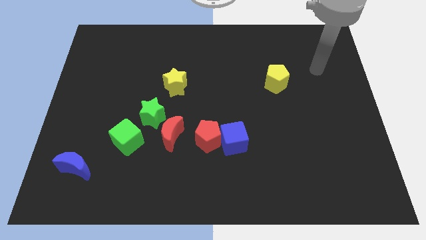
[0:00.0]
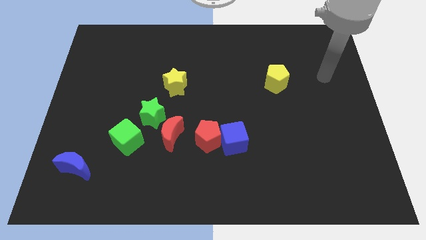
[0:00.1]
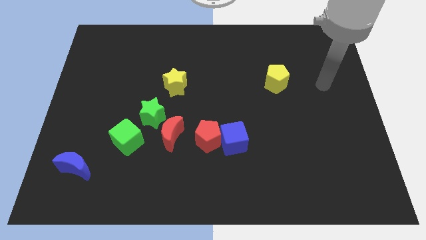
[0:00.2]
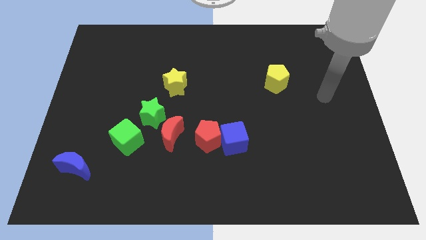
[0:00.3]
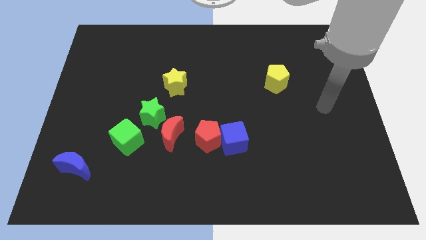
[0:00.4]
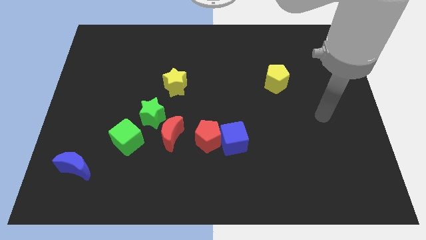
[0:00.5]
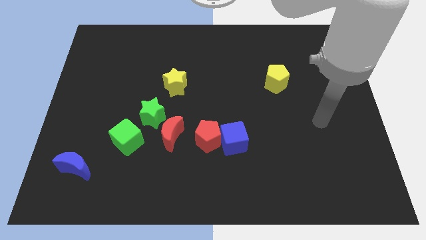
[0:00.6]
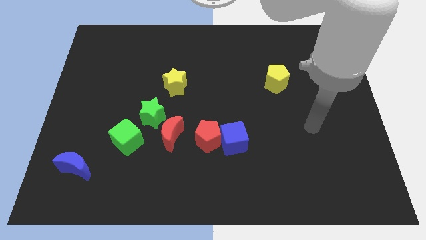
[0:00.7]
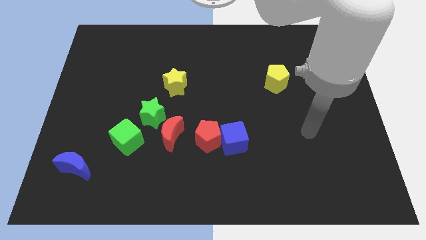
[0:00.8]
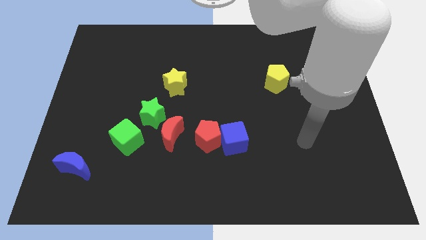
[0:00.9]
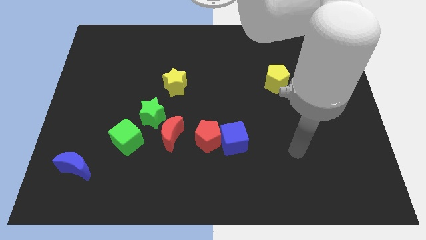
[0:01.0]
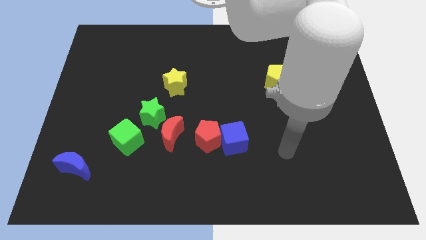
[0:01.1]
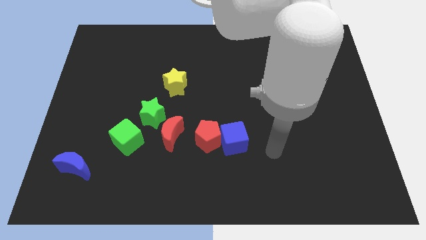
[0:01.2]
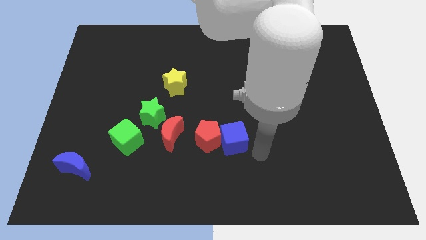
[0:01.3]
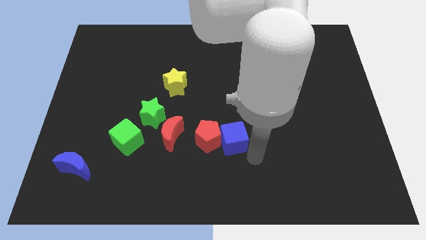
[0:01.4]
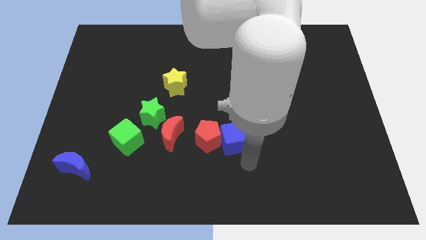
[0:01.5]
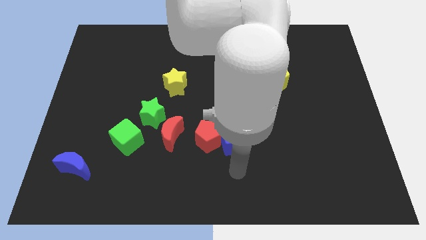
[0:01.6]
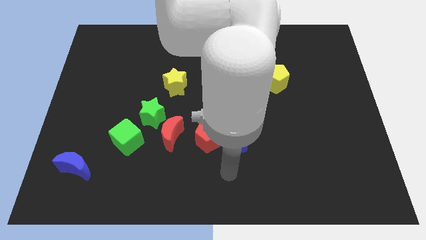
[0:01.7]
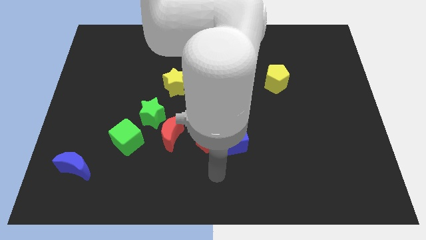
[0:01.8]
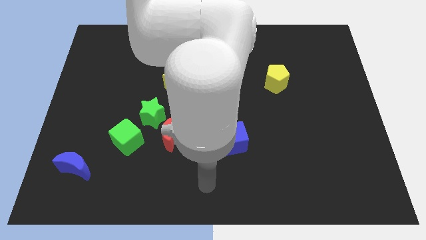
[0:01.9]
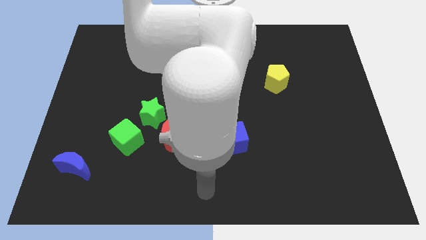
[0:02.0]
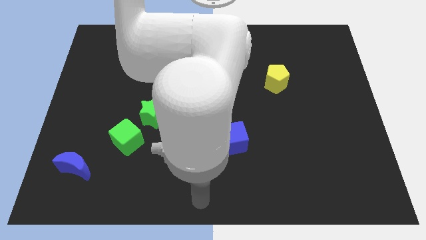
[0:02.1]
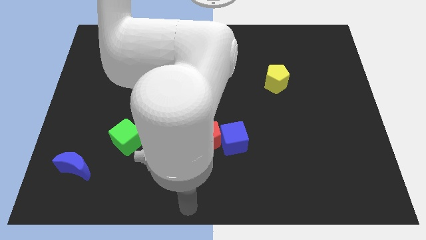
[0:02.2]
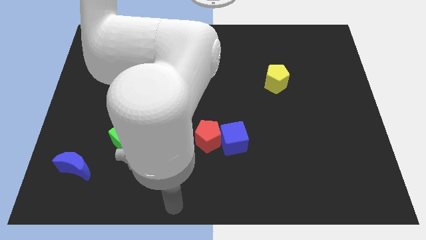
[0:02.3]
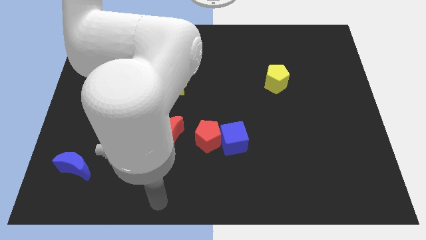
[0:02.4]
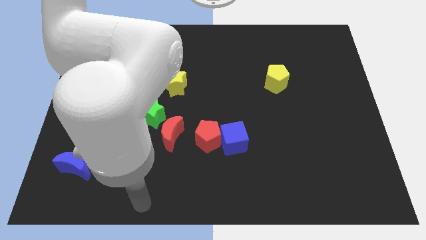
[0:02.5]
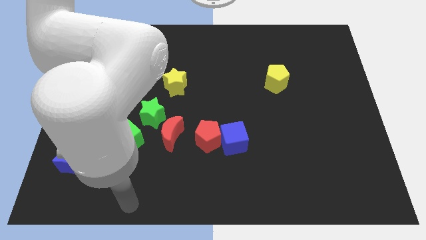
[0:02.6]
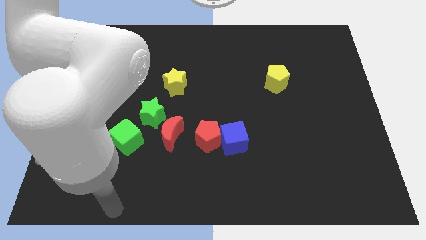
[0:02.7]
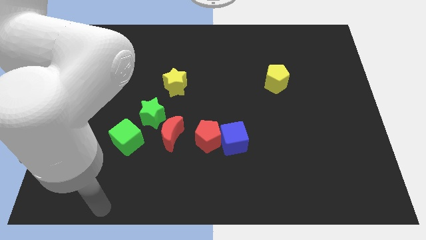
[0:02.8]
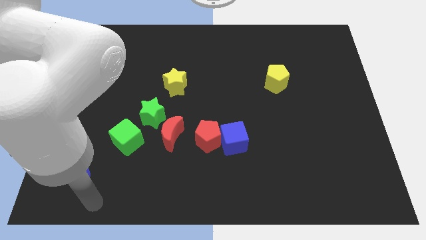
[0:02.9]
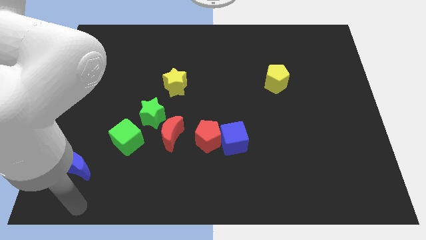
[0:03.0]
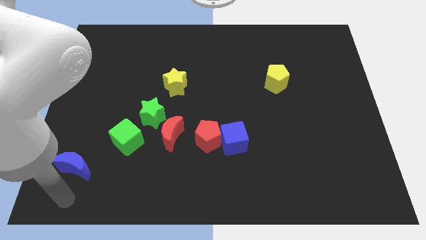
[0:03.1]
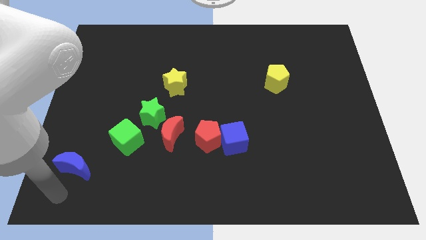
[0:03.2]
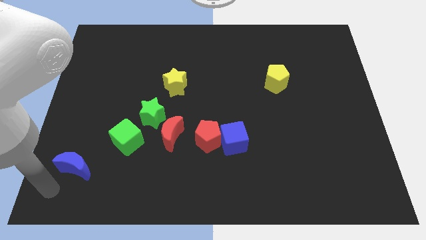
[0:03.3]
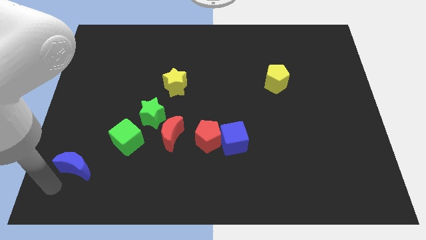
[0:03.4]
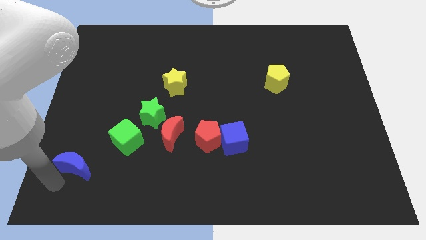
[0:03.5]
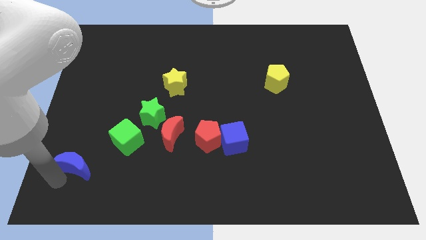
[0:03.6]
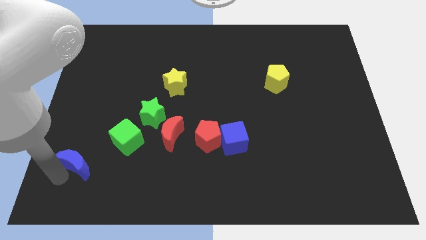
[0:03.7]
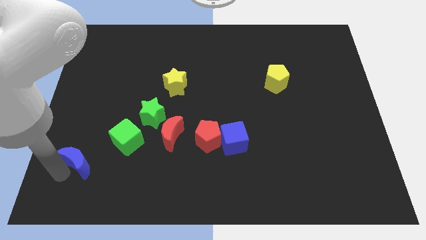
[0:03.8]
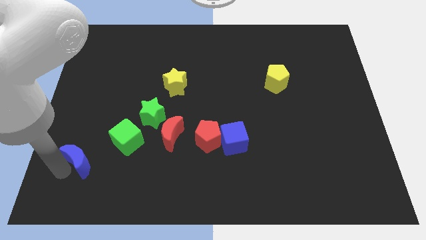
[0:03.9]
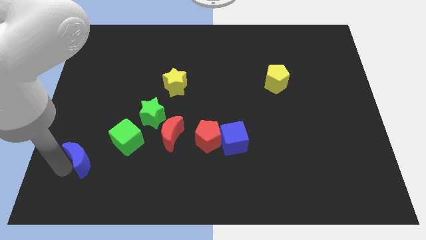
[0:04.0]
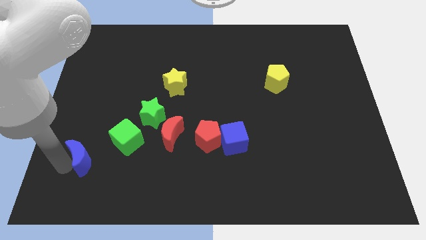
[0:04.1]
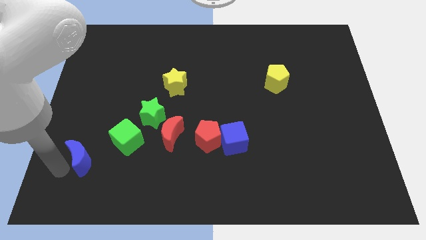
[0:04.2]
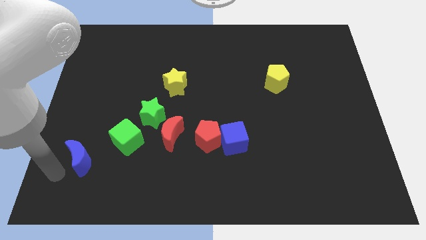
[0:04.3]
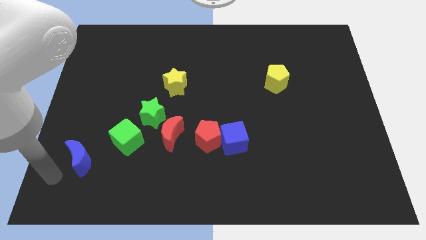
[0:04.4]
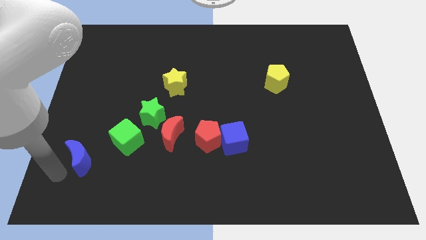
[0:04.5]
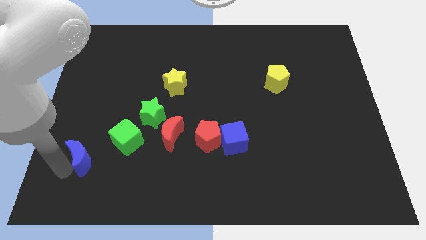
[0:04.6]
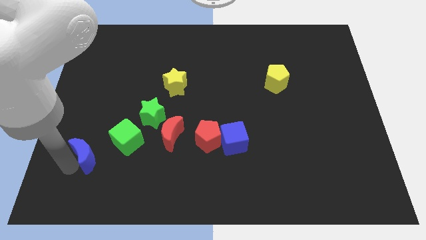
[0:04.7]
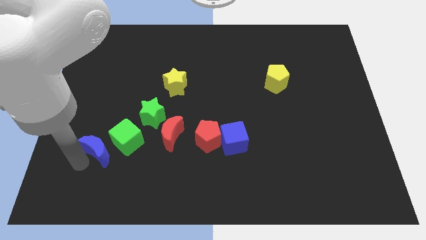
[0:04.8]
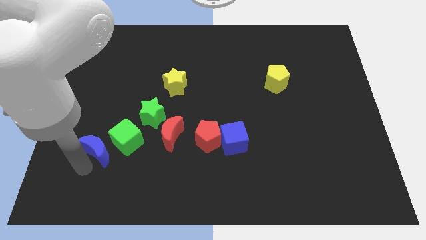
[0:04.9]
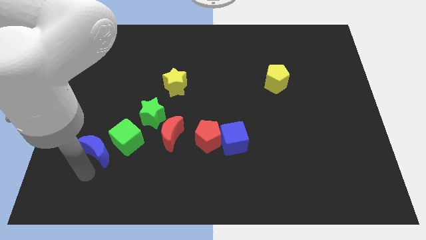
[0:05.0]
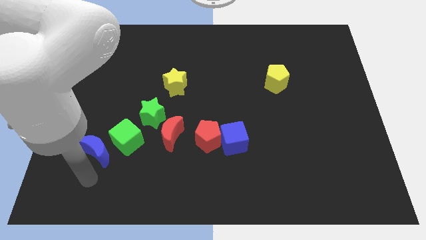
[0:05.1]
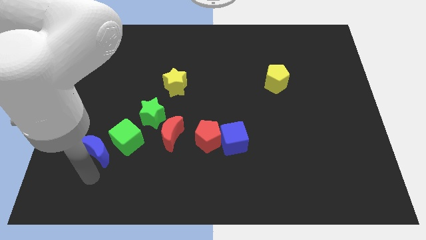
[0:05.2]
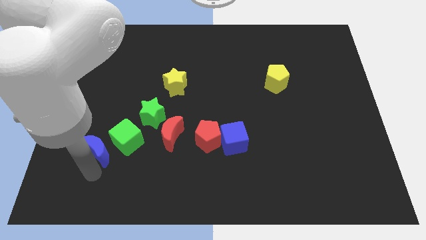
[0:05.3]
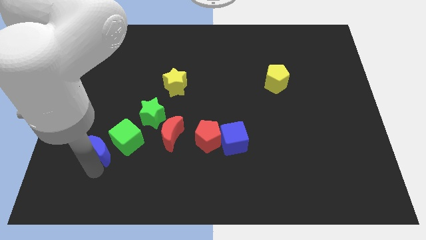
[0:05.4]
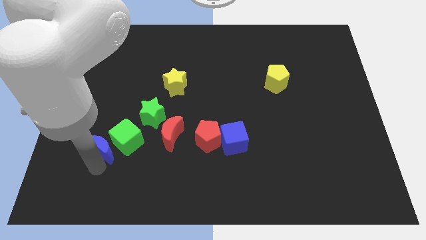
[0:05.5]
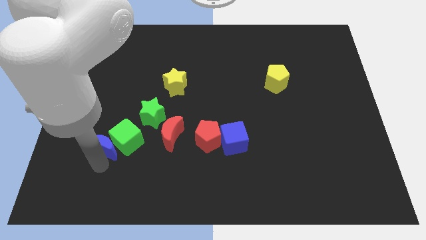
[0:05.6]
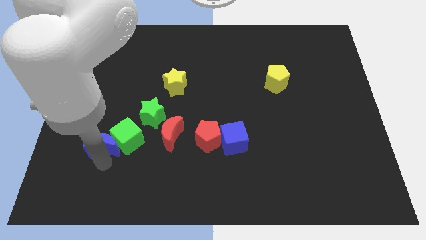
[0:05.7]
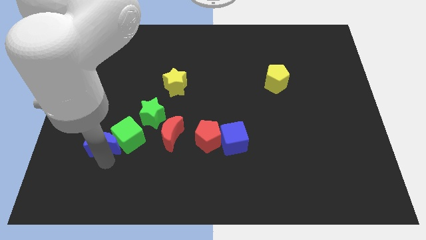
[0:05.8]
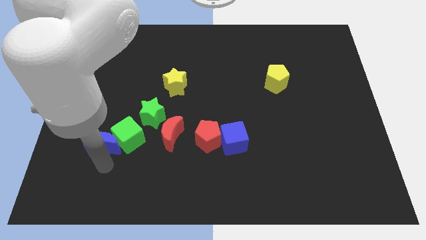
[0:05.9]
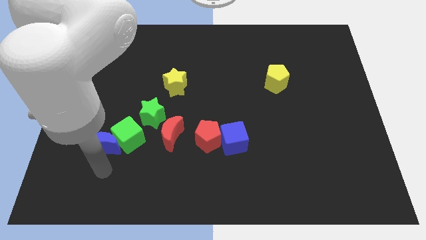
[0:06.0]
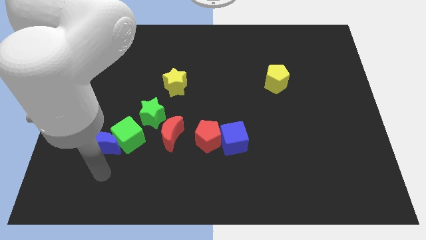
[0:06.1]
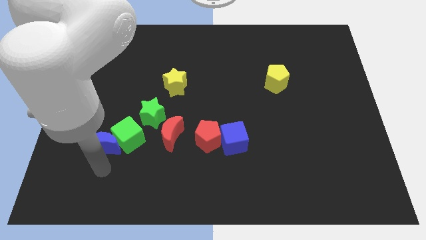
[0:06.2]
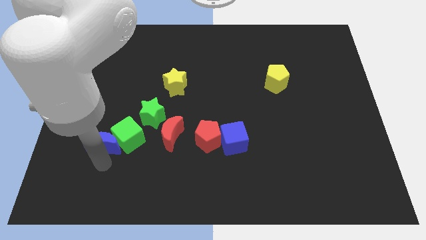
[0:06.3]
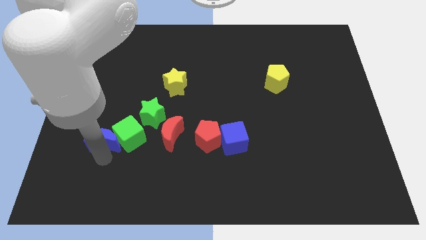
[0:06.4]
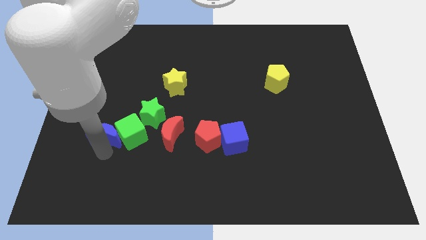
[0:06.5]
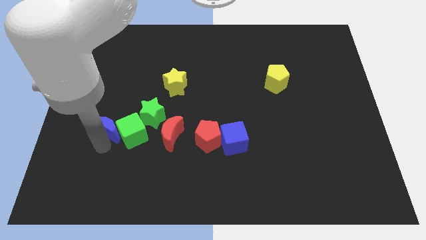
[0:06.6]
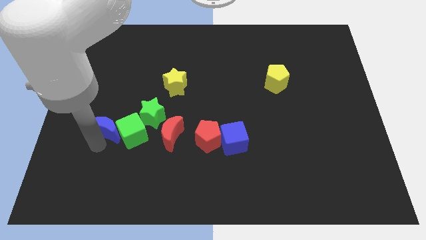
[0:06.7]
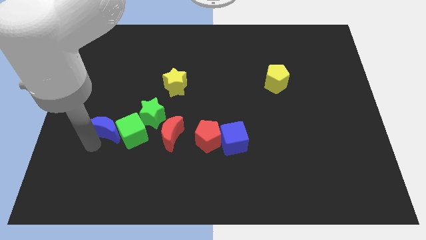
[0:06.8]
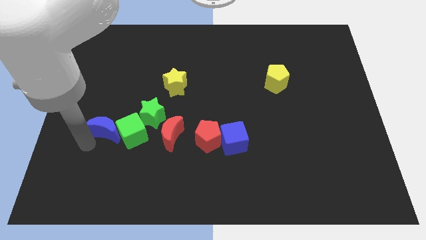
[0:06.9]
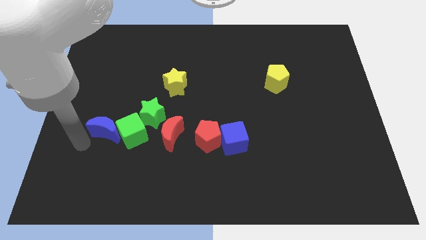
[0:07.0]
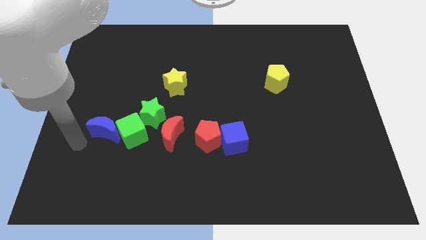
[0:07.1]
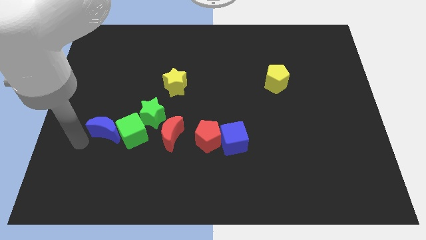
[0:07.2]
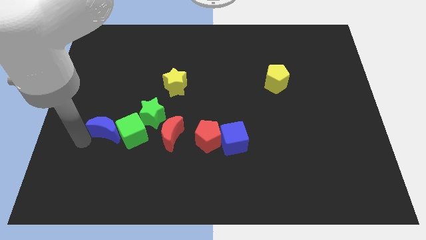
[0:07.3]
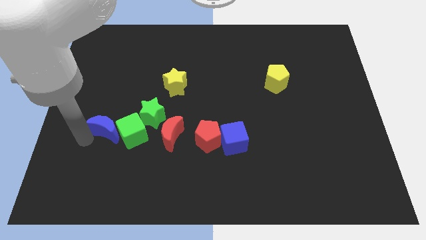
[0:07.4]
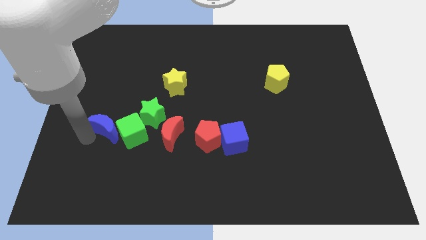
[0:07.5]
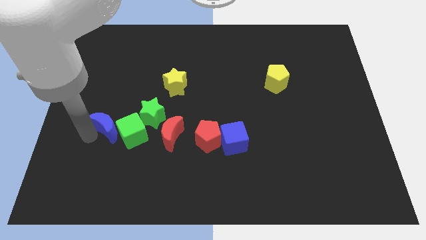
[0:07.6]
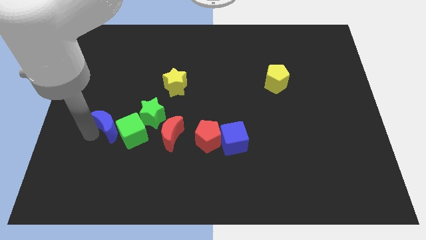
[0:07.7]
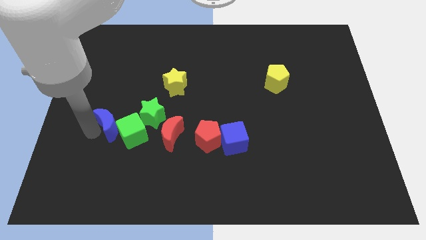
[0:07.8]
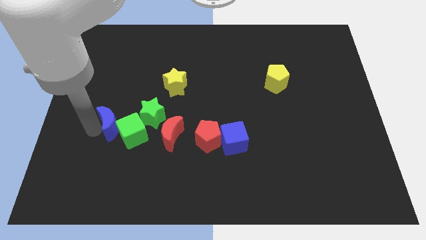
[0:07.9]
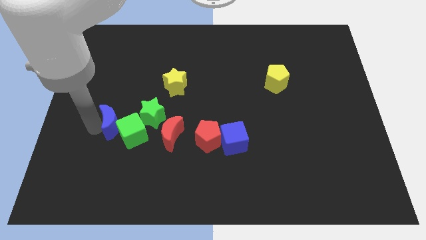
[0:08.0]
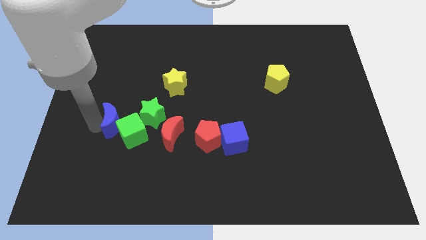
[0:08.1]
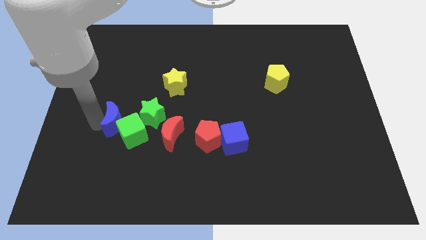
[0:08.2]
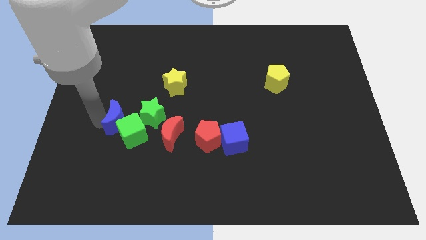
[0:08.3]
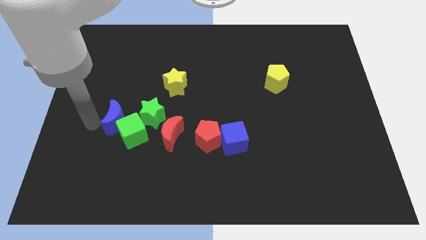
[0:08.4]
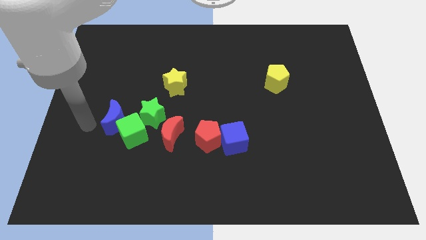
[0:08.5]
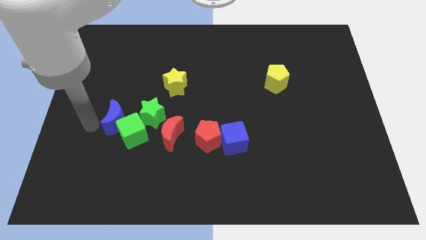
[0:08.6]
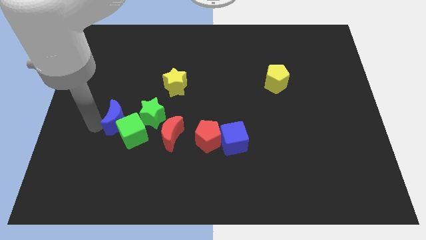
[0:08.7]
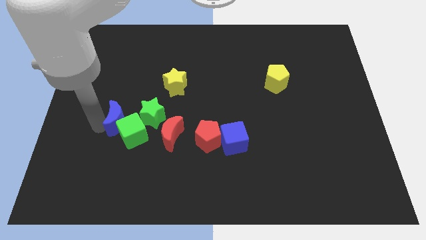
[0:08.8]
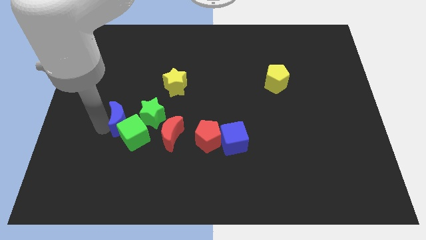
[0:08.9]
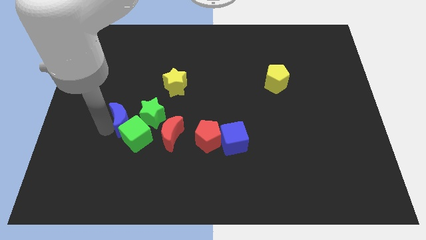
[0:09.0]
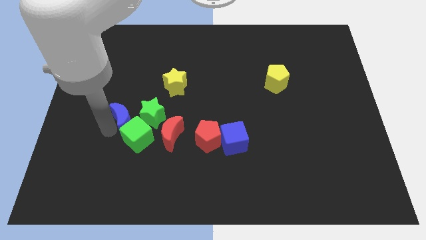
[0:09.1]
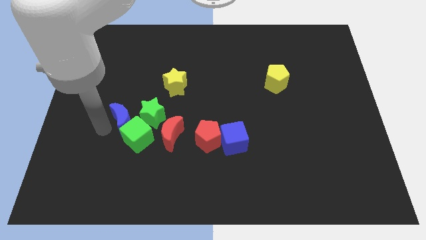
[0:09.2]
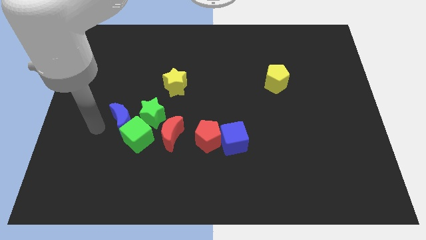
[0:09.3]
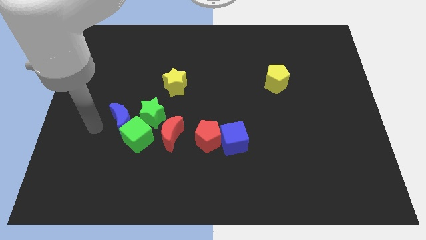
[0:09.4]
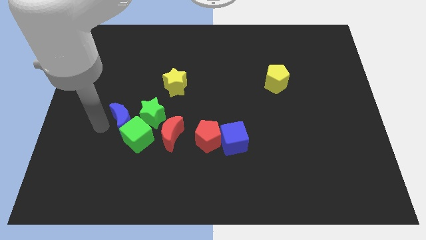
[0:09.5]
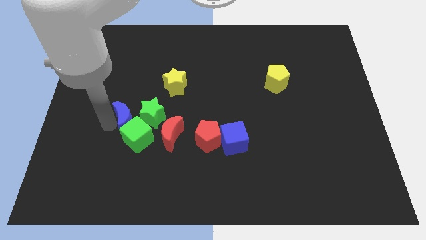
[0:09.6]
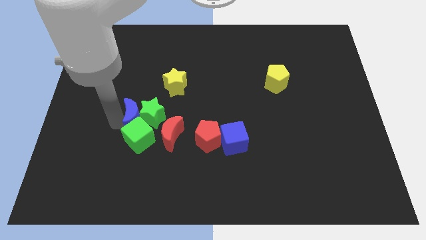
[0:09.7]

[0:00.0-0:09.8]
slide the blue moon to the green star
